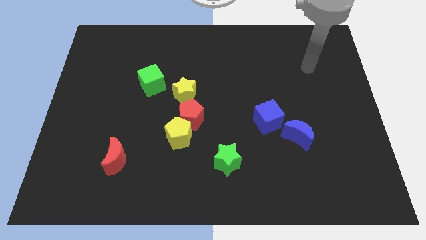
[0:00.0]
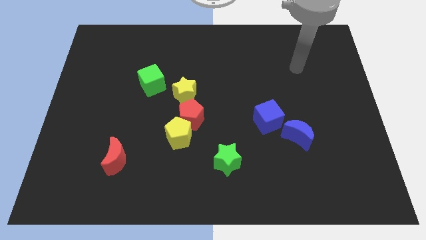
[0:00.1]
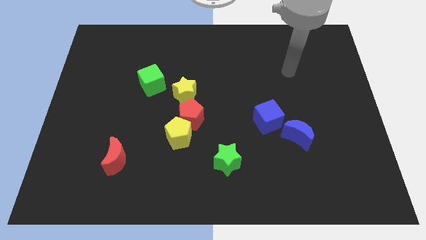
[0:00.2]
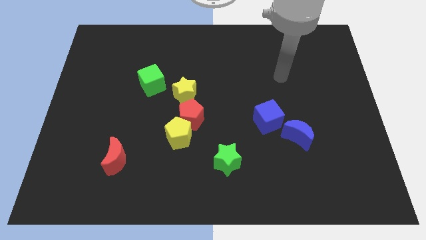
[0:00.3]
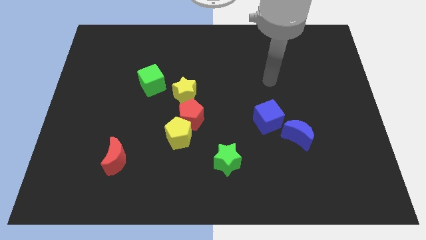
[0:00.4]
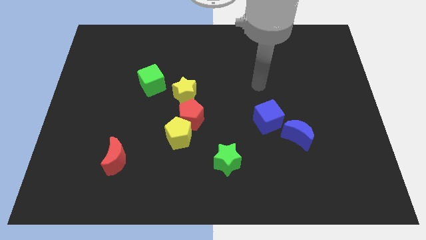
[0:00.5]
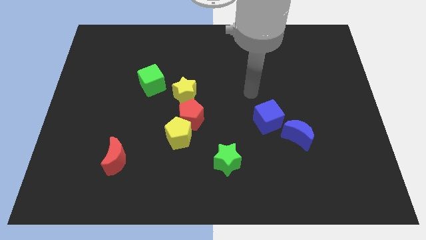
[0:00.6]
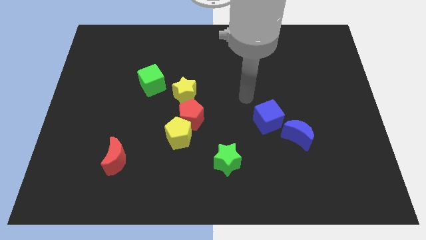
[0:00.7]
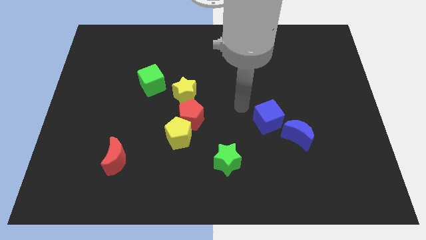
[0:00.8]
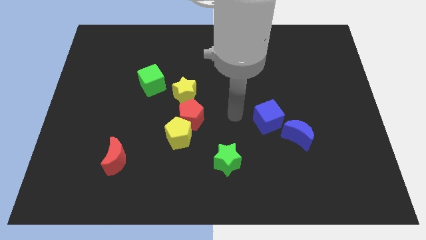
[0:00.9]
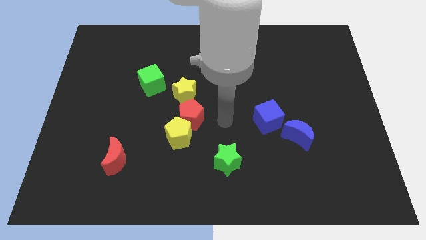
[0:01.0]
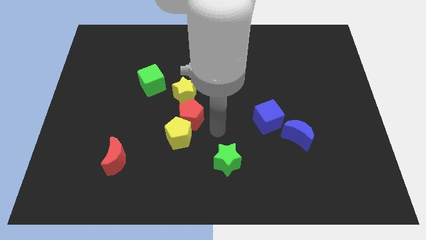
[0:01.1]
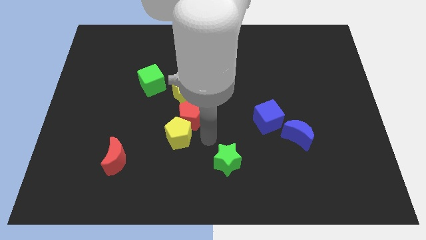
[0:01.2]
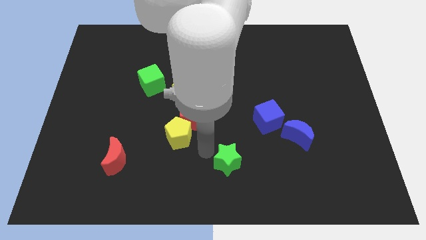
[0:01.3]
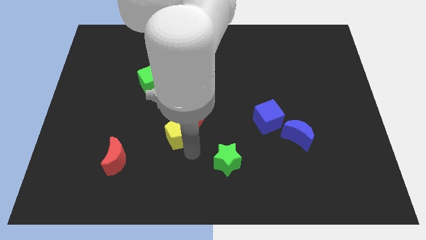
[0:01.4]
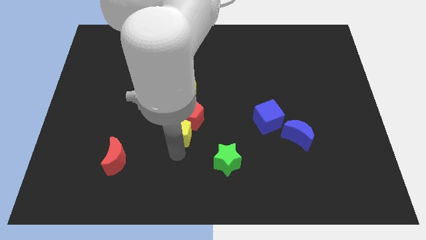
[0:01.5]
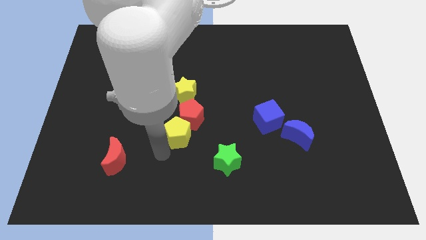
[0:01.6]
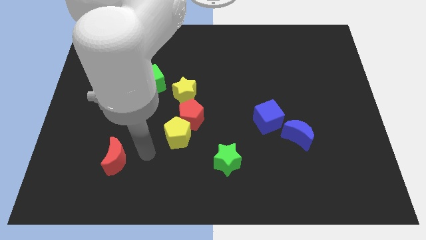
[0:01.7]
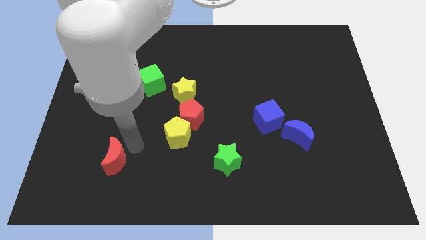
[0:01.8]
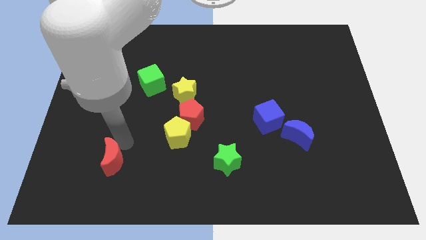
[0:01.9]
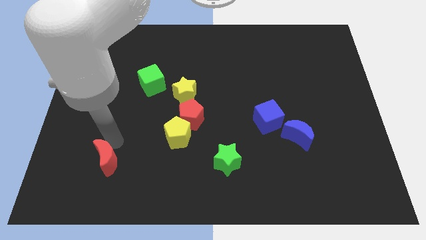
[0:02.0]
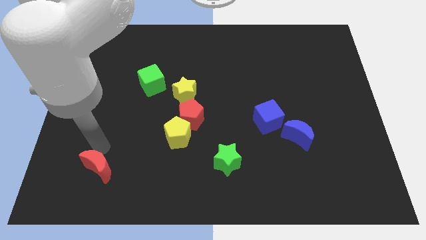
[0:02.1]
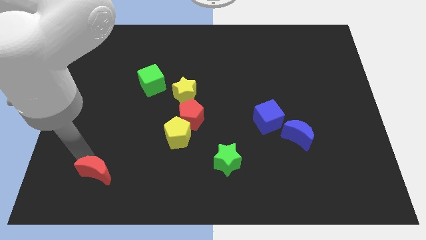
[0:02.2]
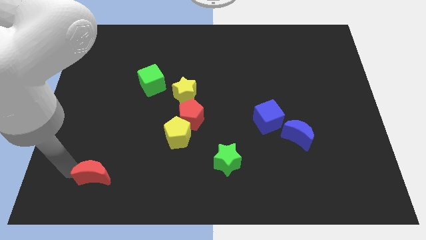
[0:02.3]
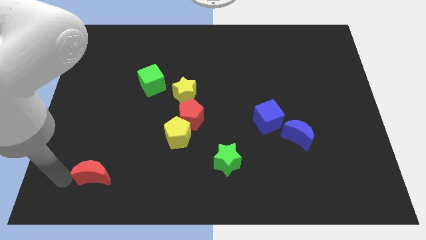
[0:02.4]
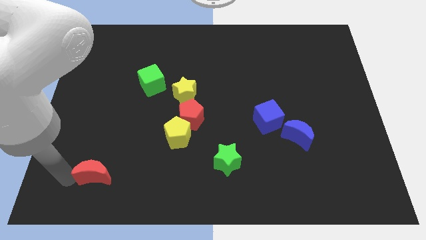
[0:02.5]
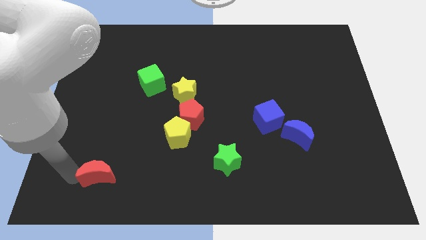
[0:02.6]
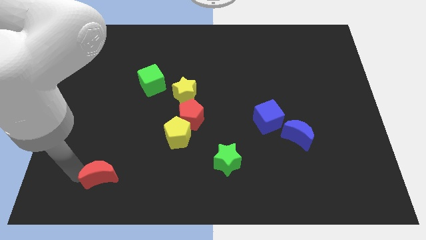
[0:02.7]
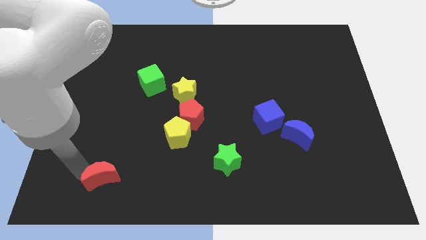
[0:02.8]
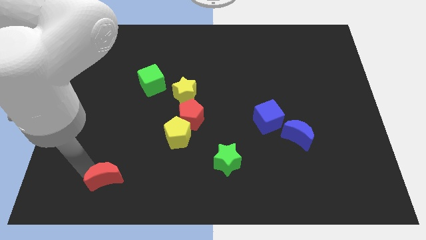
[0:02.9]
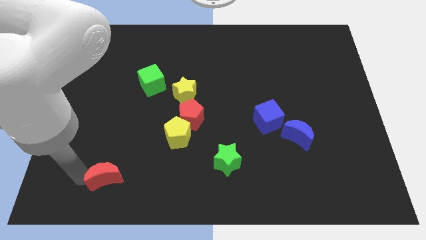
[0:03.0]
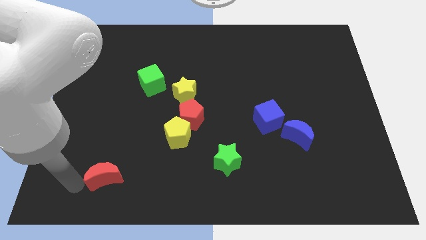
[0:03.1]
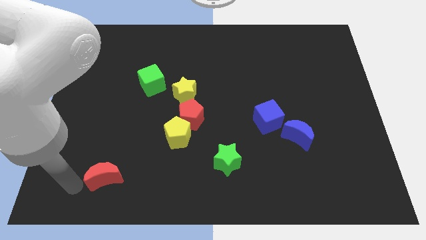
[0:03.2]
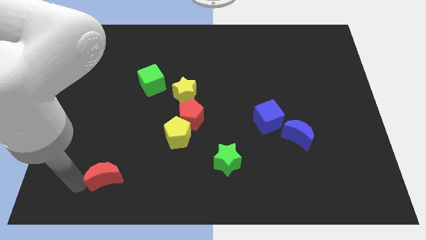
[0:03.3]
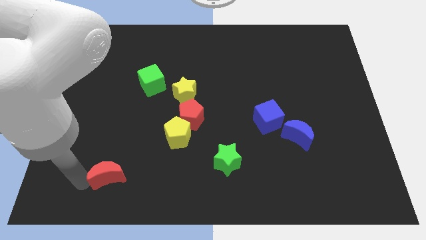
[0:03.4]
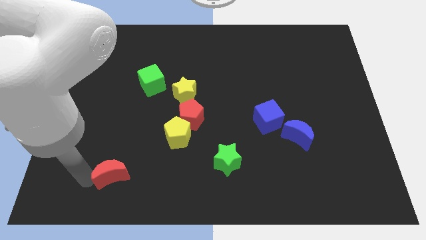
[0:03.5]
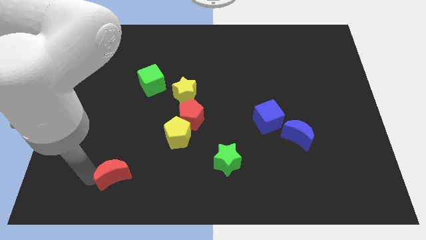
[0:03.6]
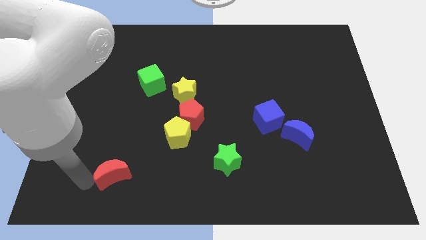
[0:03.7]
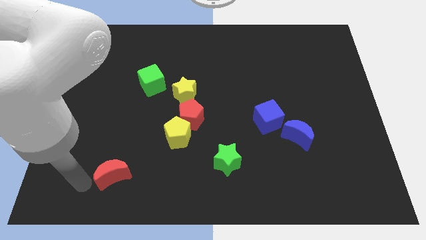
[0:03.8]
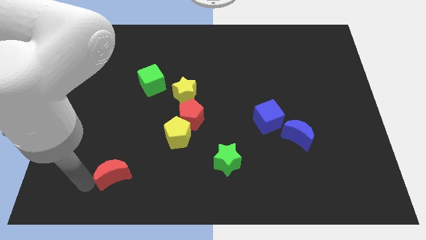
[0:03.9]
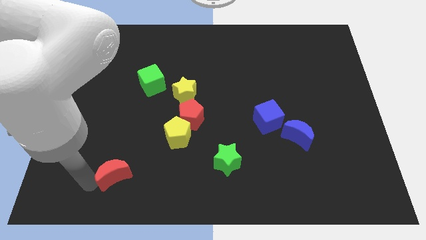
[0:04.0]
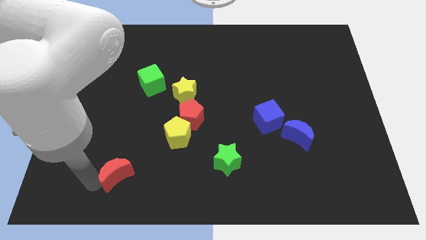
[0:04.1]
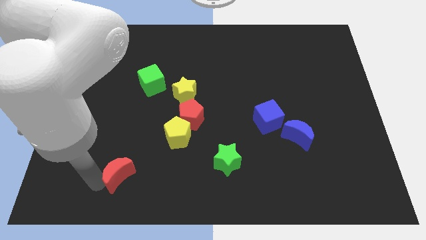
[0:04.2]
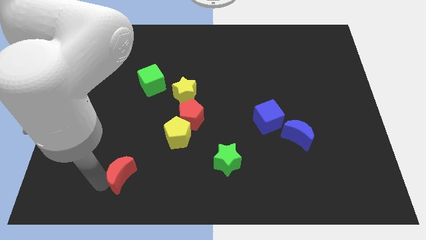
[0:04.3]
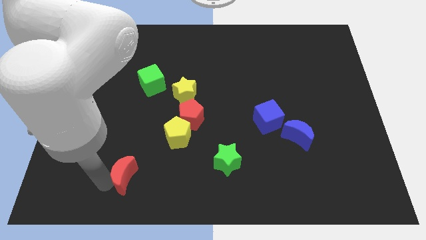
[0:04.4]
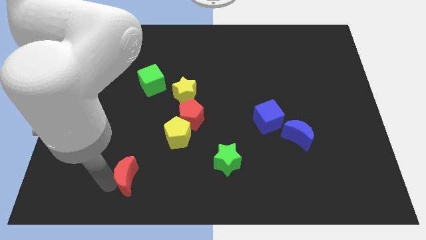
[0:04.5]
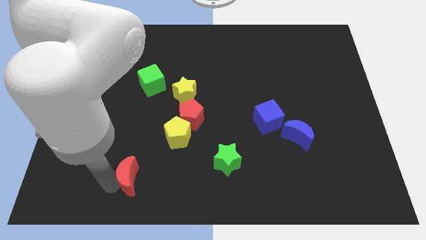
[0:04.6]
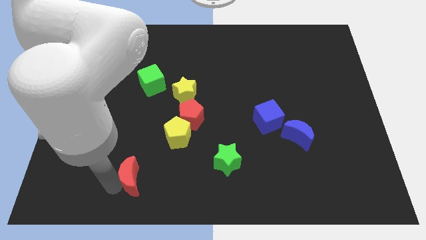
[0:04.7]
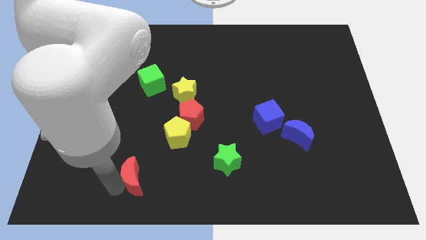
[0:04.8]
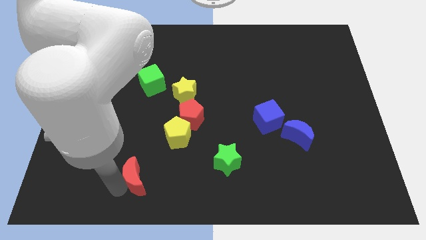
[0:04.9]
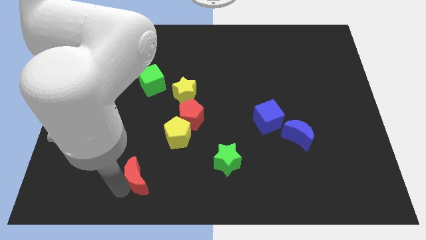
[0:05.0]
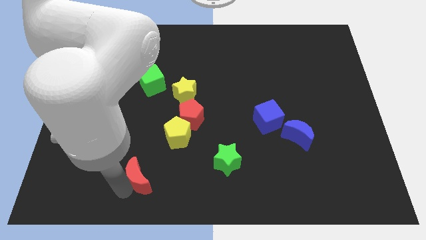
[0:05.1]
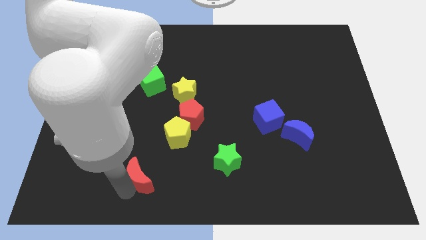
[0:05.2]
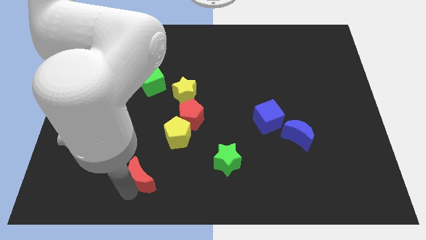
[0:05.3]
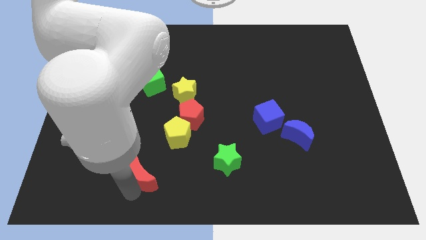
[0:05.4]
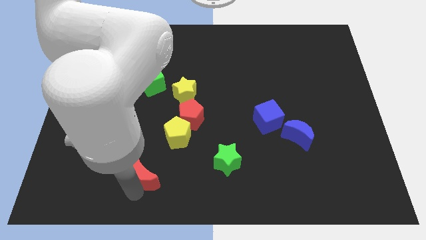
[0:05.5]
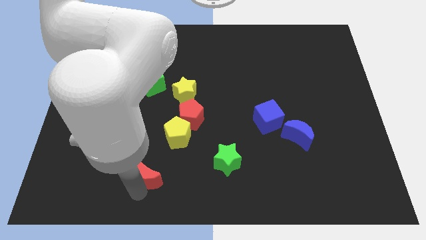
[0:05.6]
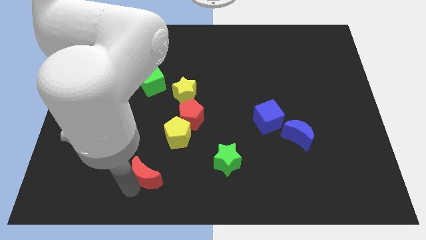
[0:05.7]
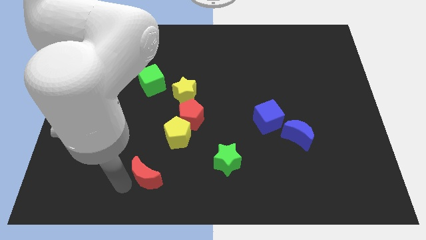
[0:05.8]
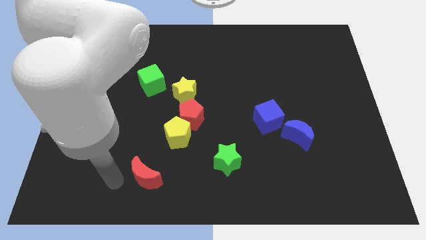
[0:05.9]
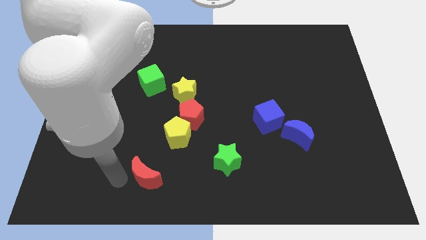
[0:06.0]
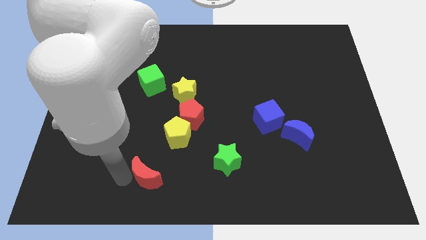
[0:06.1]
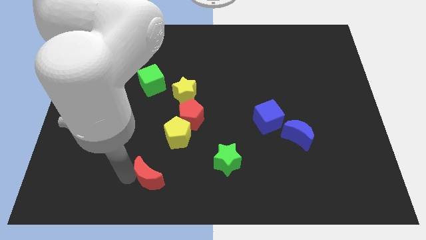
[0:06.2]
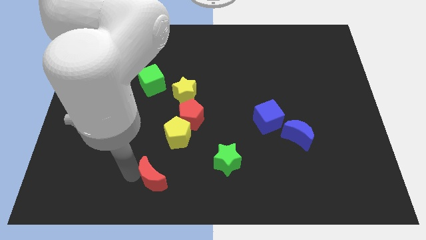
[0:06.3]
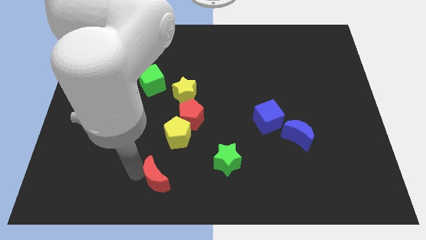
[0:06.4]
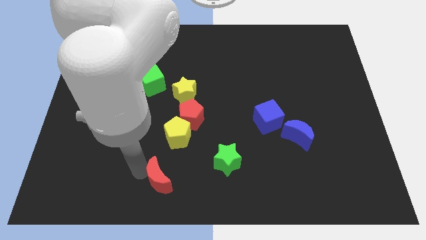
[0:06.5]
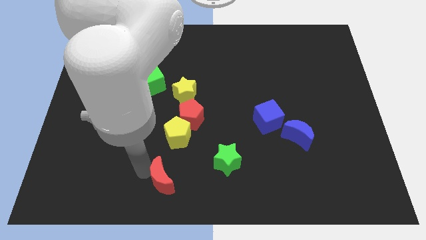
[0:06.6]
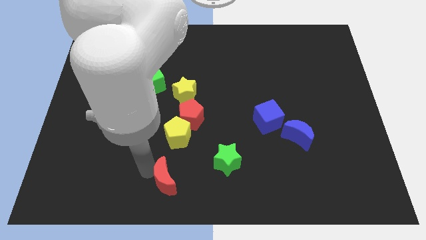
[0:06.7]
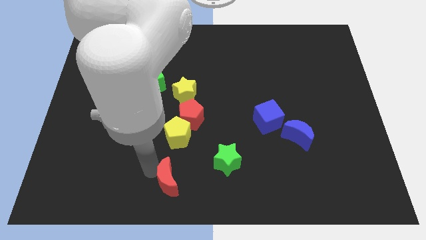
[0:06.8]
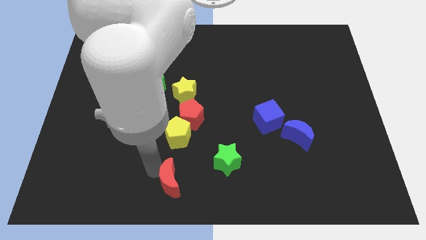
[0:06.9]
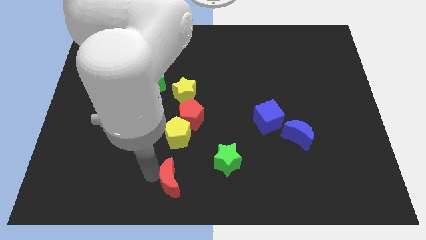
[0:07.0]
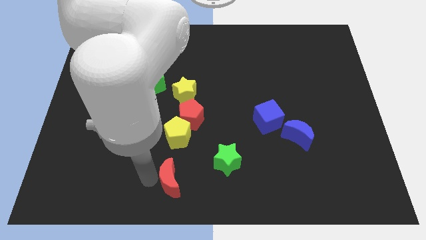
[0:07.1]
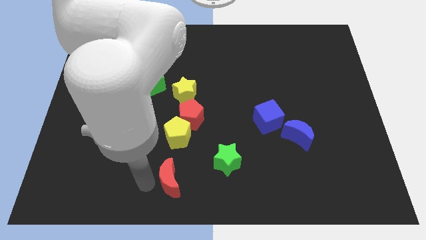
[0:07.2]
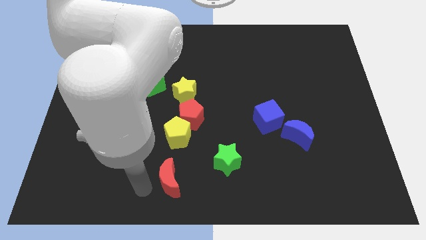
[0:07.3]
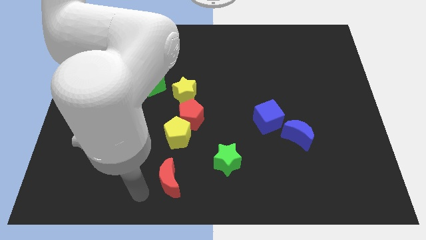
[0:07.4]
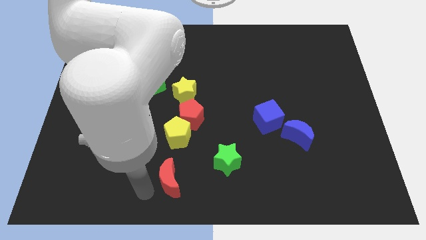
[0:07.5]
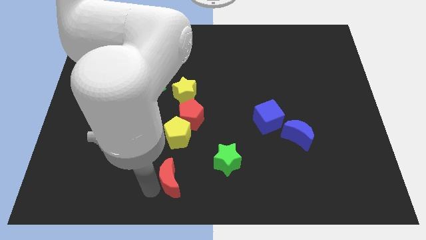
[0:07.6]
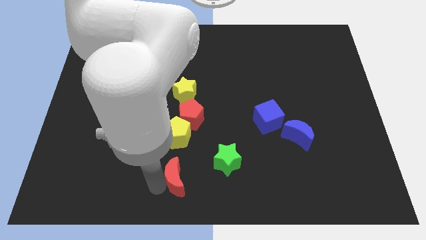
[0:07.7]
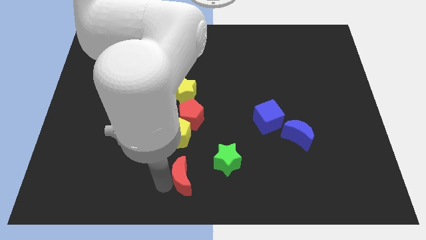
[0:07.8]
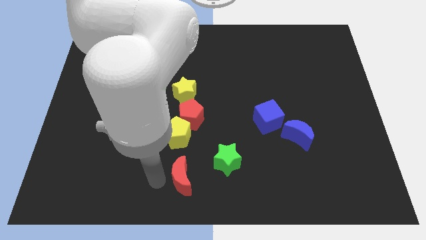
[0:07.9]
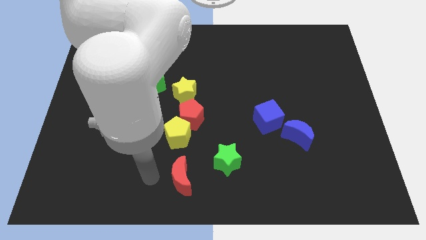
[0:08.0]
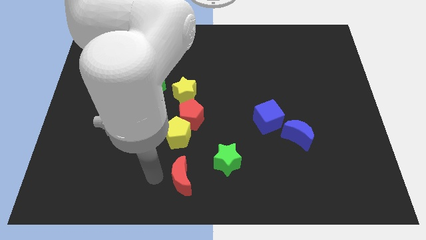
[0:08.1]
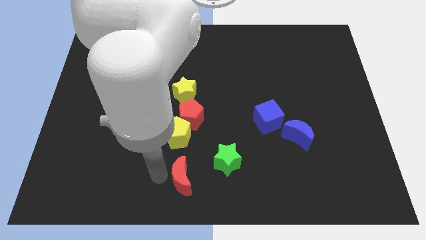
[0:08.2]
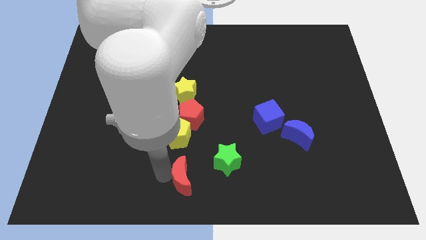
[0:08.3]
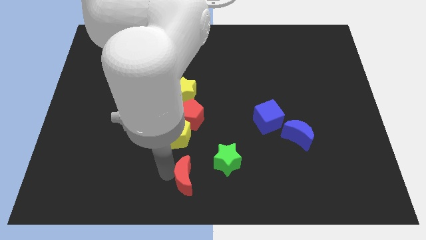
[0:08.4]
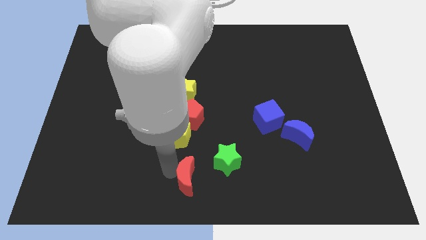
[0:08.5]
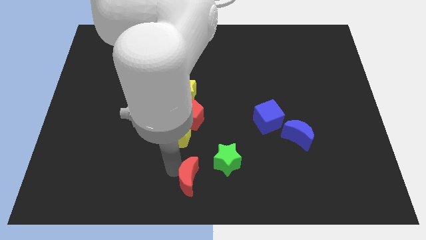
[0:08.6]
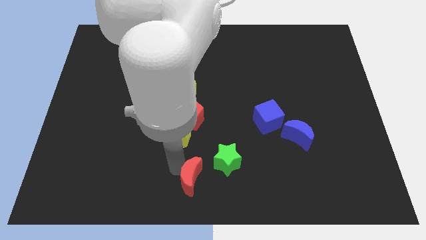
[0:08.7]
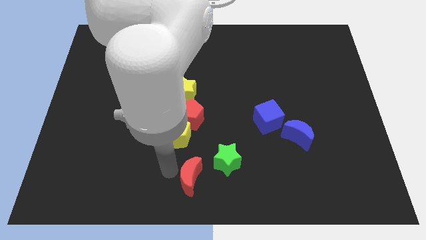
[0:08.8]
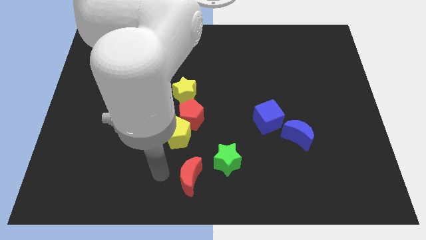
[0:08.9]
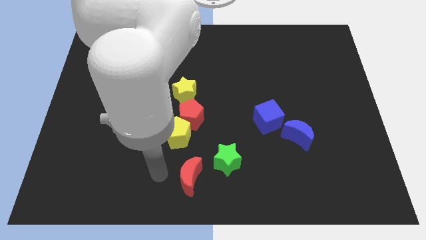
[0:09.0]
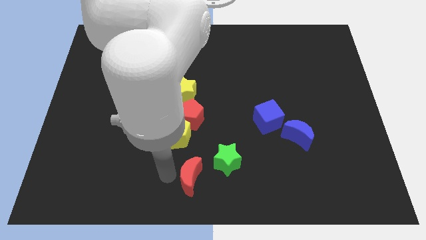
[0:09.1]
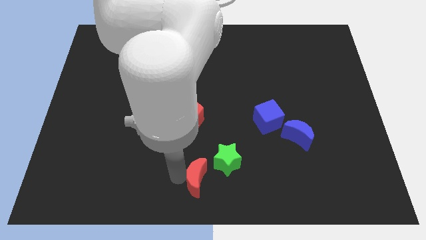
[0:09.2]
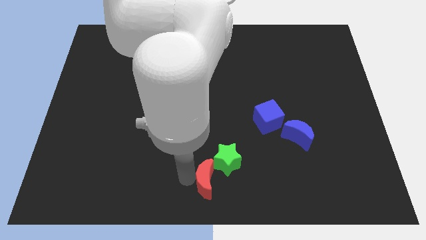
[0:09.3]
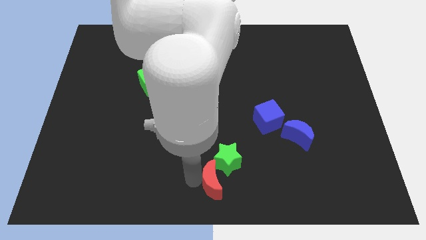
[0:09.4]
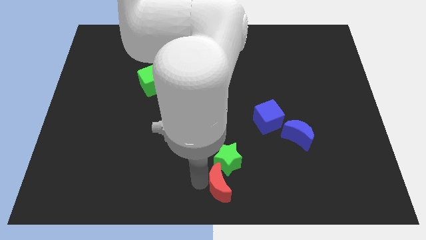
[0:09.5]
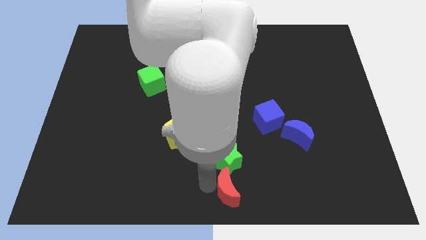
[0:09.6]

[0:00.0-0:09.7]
move the red moon diagonally down and to the right of the green star
